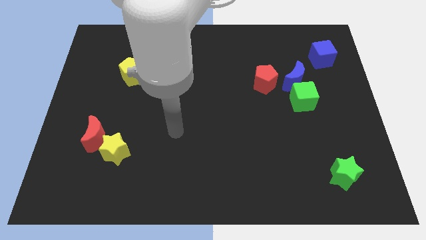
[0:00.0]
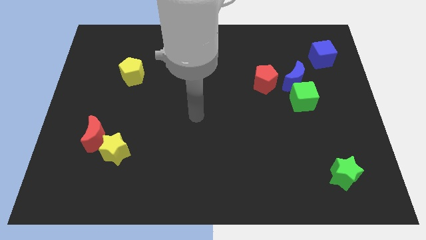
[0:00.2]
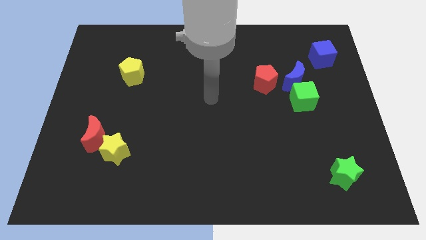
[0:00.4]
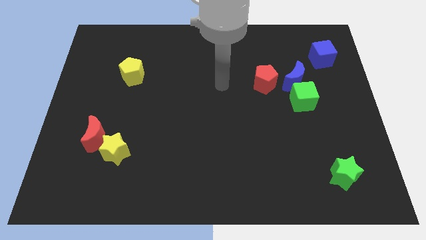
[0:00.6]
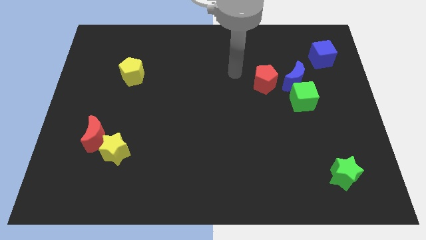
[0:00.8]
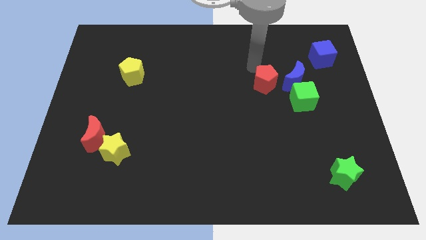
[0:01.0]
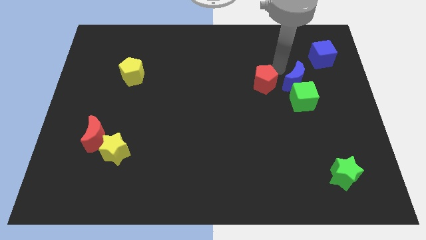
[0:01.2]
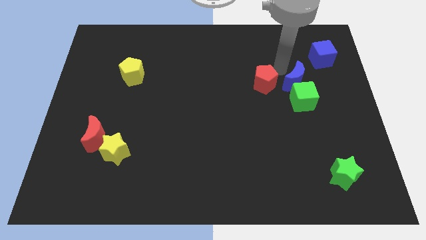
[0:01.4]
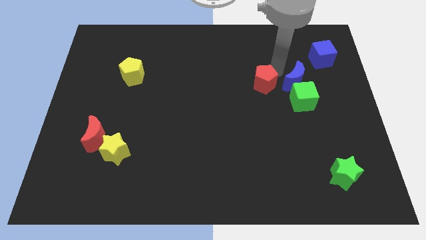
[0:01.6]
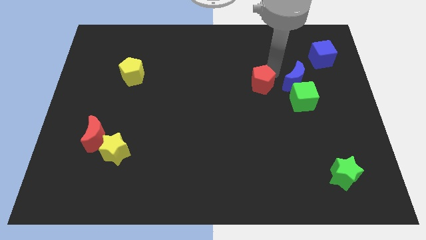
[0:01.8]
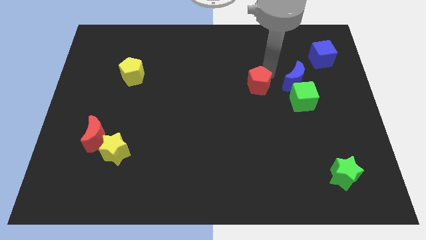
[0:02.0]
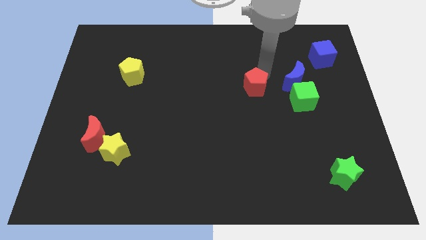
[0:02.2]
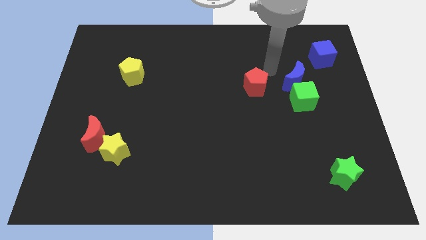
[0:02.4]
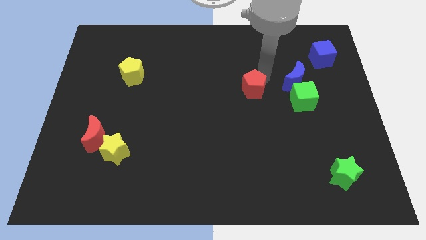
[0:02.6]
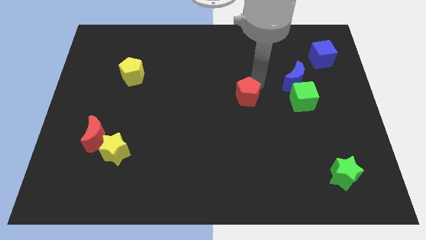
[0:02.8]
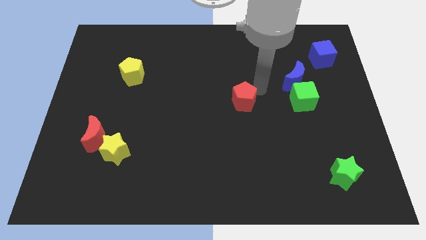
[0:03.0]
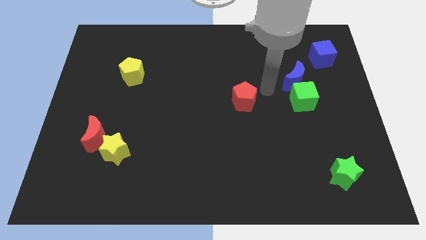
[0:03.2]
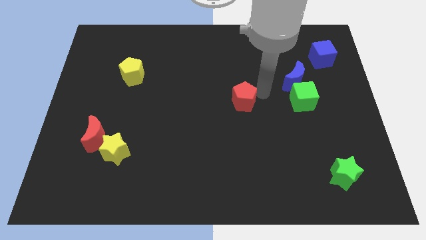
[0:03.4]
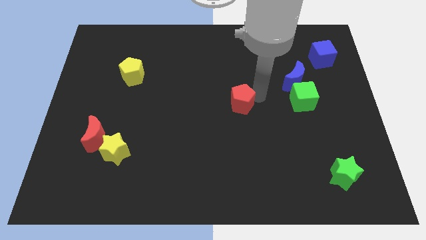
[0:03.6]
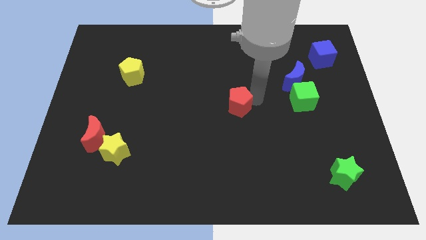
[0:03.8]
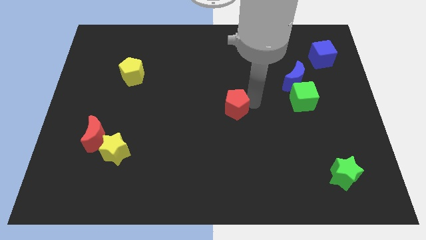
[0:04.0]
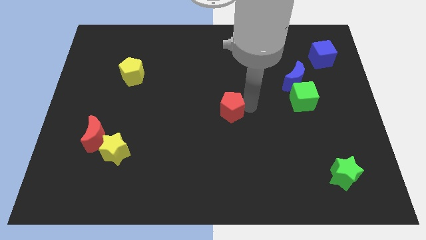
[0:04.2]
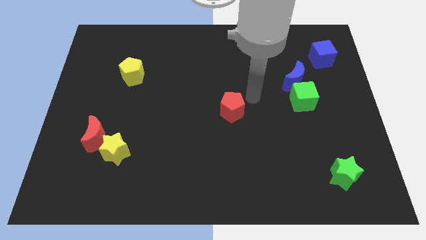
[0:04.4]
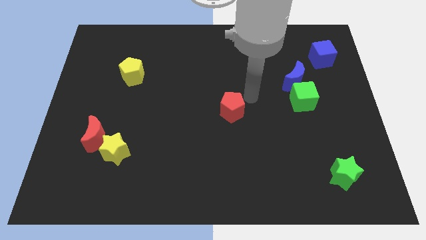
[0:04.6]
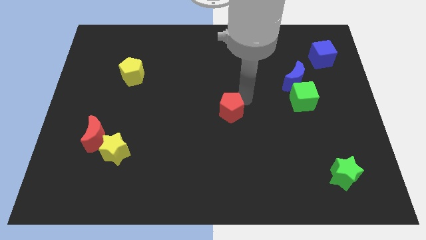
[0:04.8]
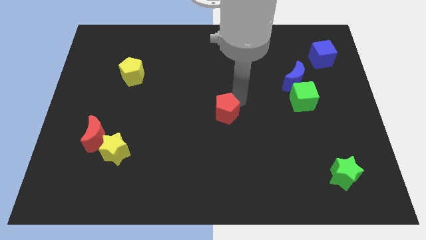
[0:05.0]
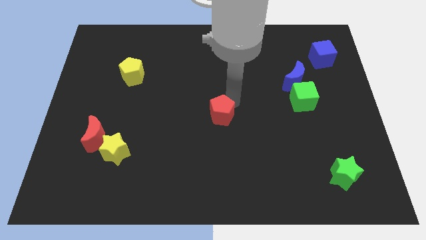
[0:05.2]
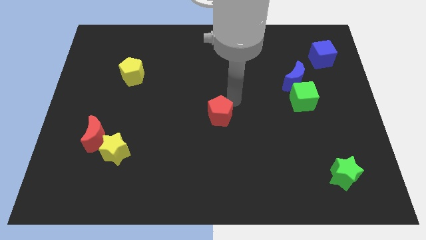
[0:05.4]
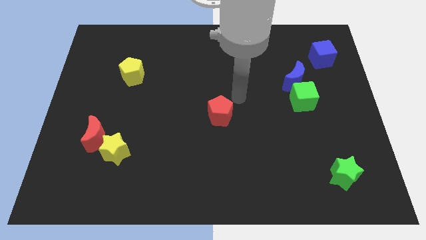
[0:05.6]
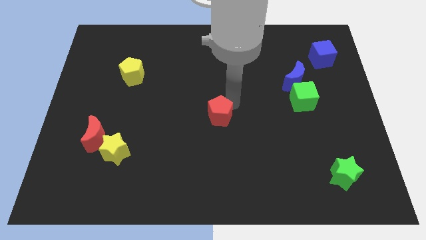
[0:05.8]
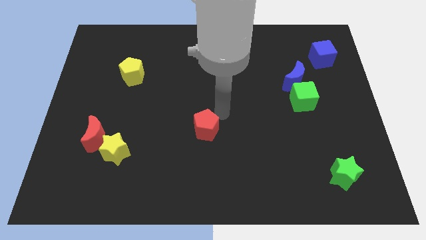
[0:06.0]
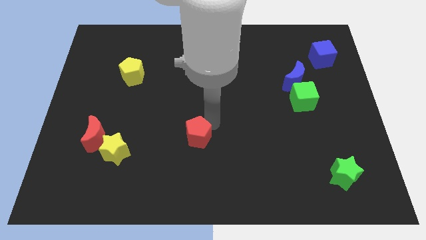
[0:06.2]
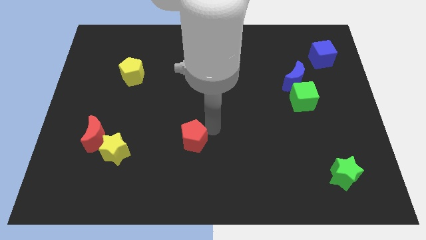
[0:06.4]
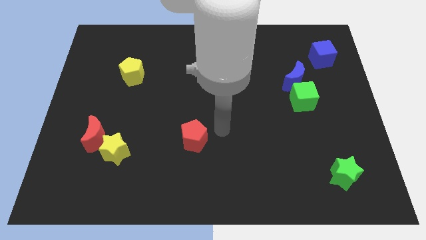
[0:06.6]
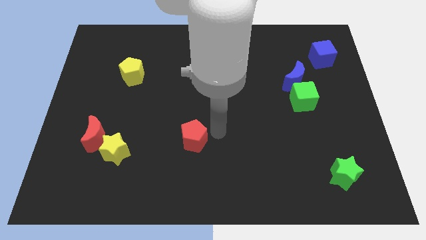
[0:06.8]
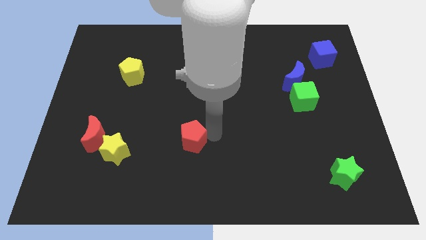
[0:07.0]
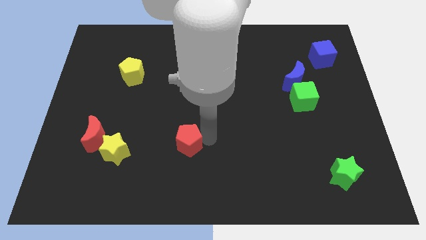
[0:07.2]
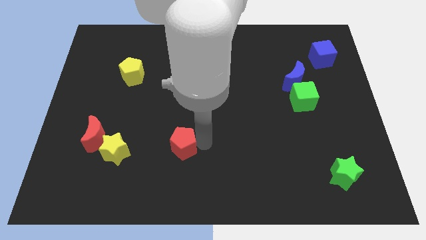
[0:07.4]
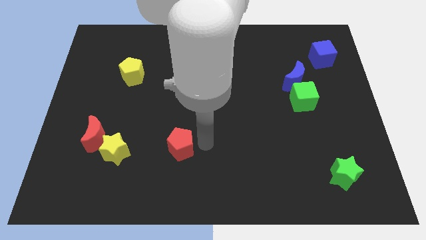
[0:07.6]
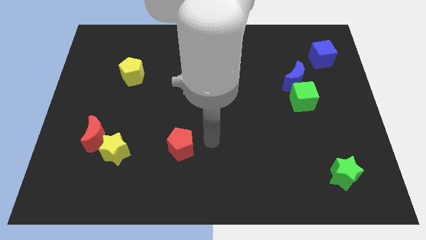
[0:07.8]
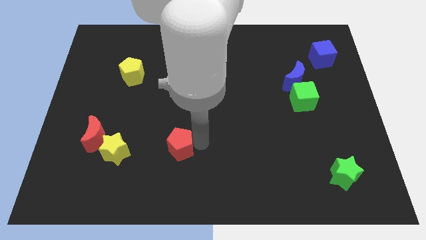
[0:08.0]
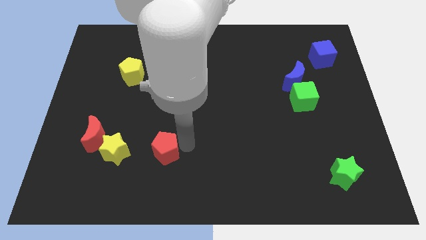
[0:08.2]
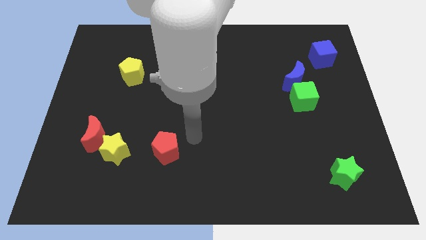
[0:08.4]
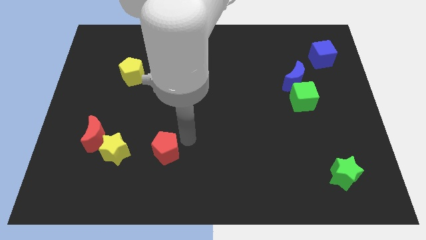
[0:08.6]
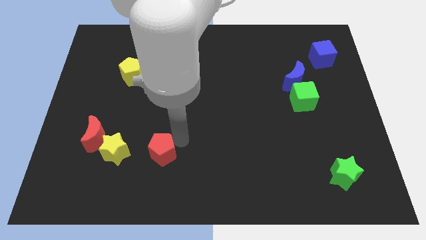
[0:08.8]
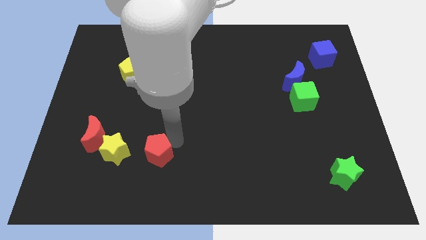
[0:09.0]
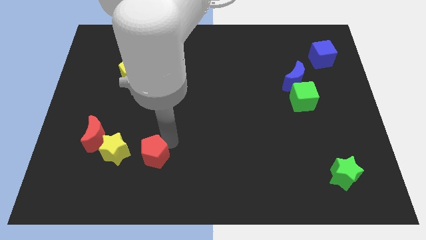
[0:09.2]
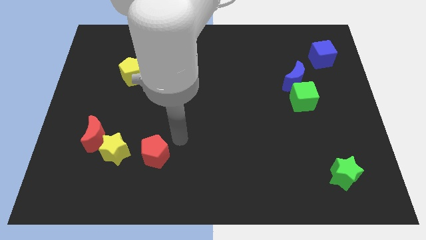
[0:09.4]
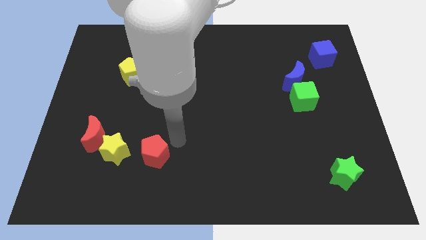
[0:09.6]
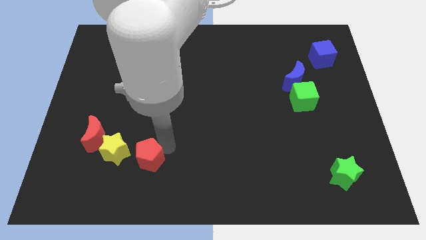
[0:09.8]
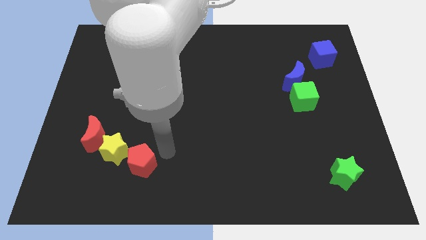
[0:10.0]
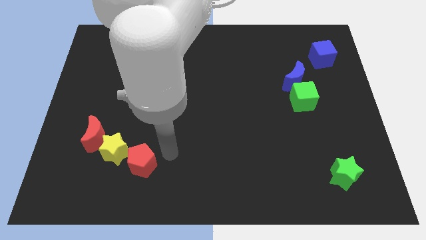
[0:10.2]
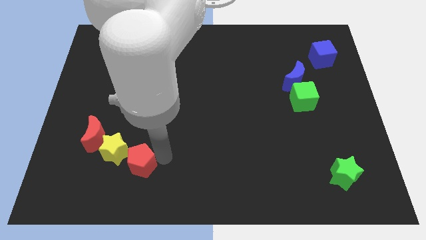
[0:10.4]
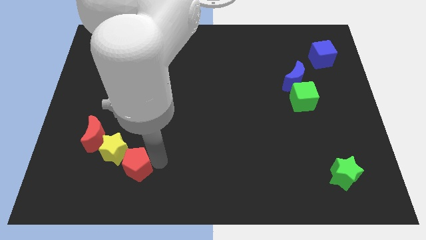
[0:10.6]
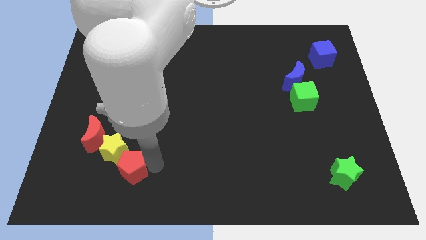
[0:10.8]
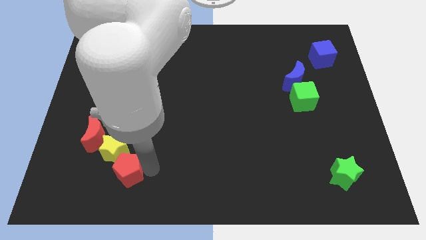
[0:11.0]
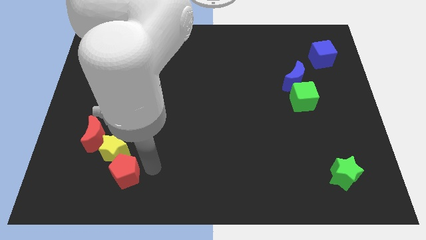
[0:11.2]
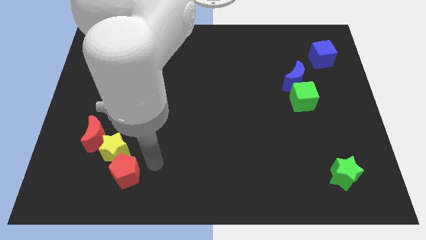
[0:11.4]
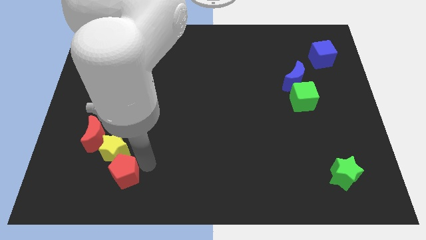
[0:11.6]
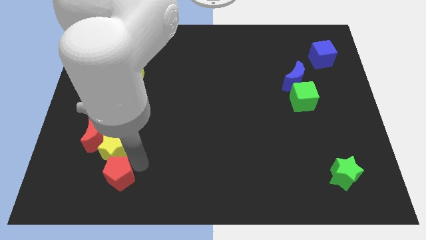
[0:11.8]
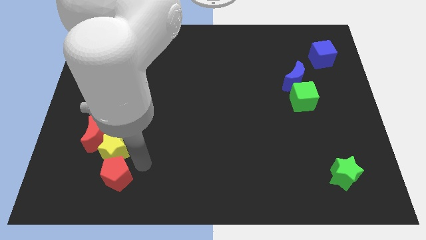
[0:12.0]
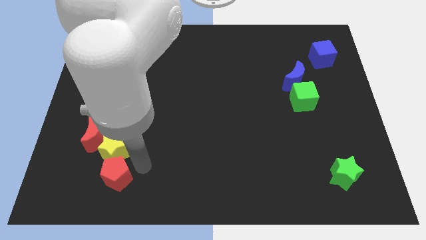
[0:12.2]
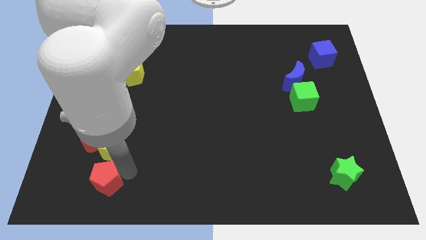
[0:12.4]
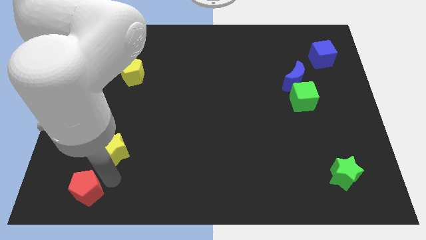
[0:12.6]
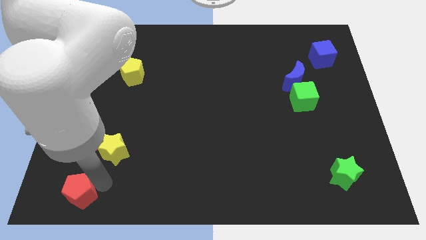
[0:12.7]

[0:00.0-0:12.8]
put the red pentagon to the lower left corner

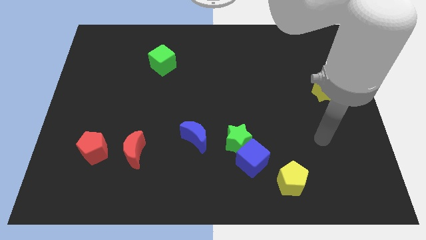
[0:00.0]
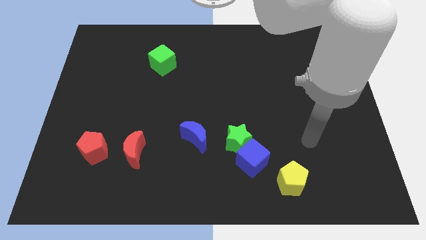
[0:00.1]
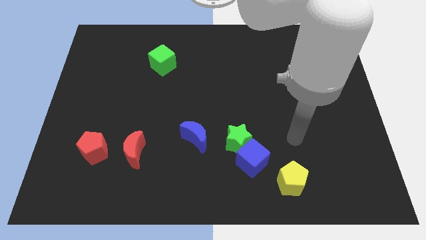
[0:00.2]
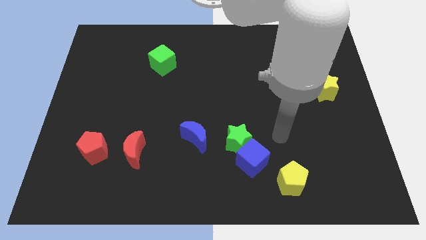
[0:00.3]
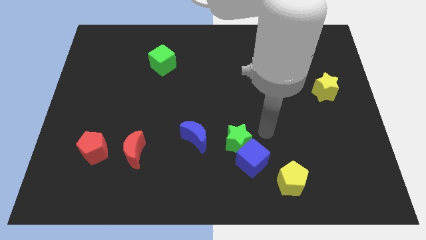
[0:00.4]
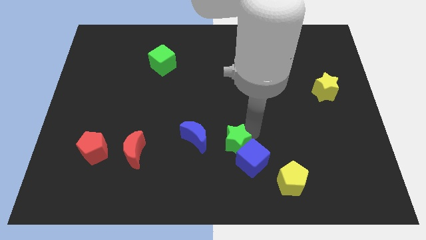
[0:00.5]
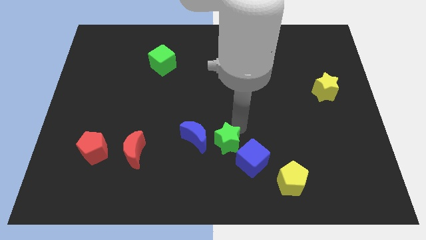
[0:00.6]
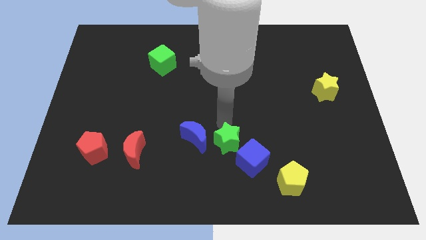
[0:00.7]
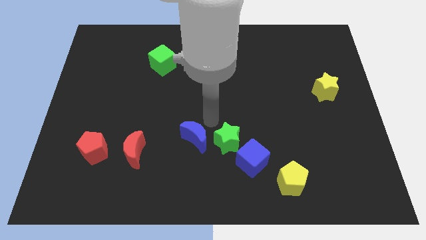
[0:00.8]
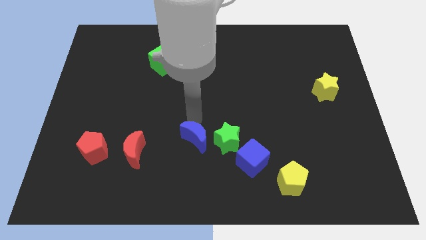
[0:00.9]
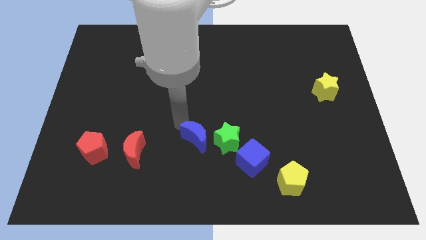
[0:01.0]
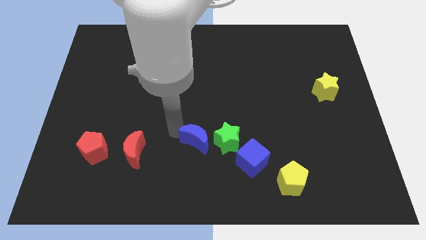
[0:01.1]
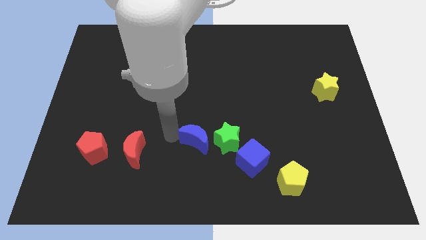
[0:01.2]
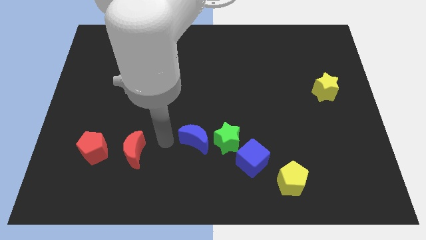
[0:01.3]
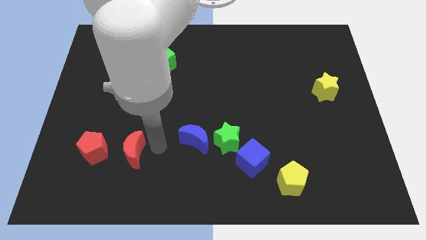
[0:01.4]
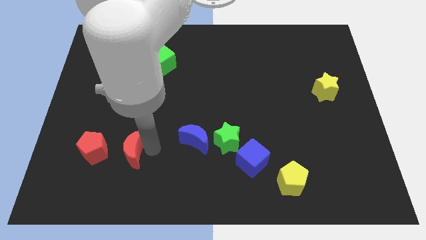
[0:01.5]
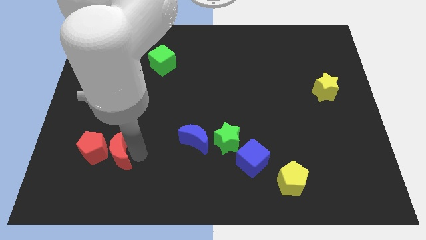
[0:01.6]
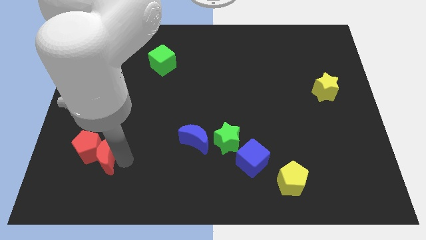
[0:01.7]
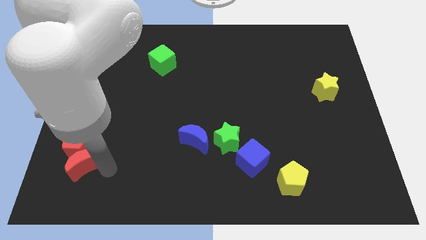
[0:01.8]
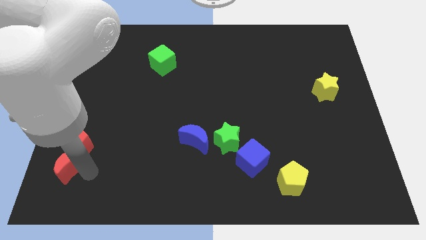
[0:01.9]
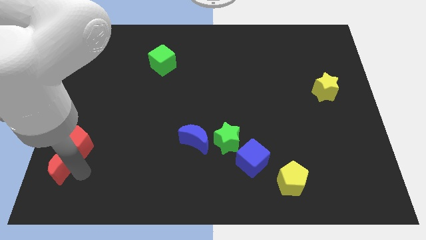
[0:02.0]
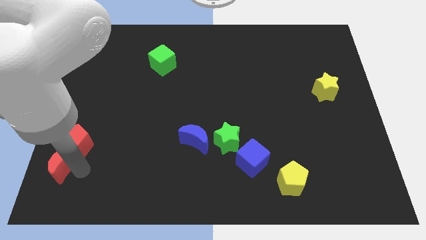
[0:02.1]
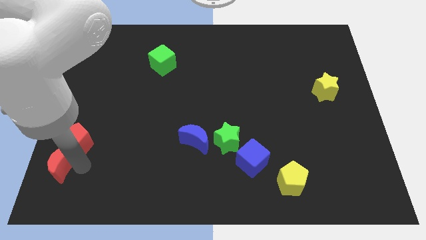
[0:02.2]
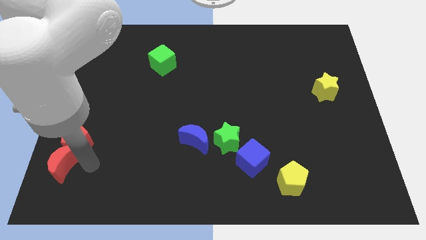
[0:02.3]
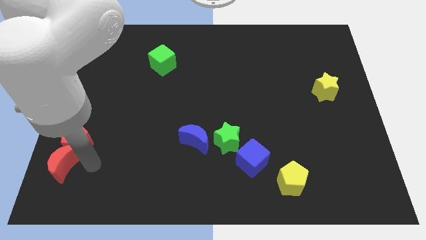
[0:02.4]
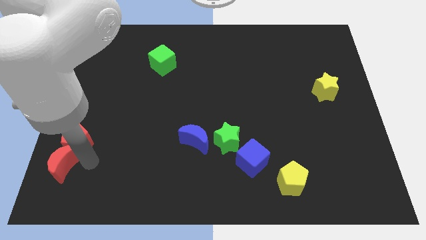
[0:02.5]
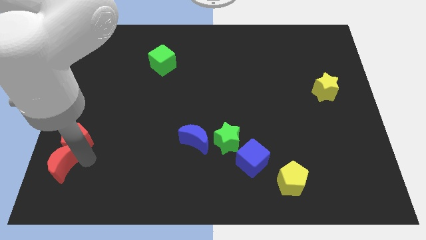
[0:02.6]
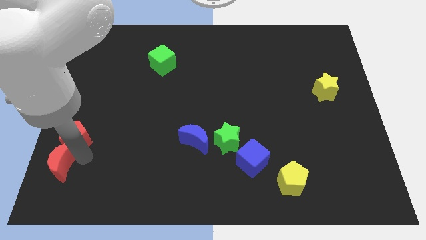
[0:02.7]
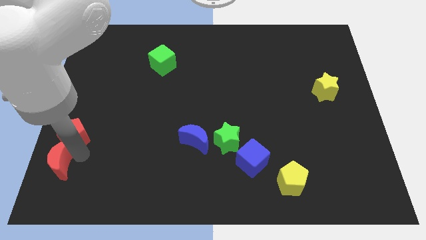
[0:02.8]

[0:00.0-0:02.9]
slide the red pentagon to the left side of the board
